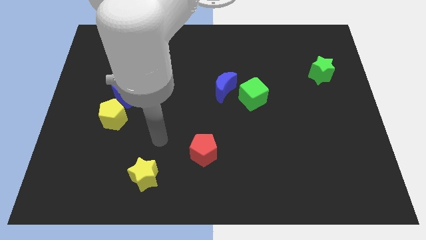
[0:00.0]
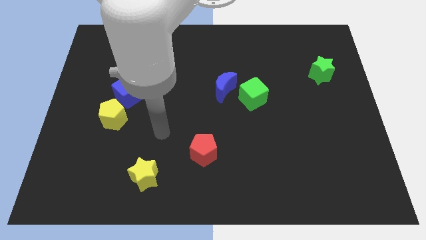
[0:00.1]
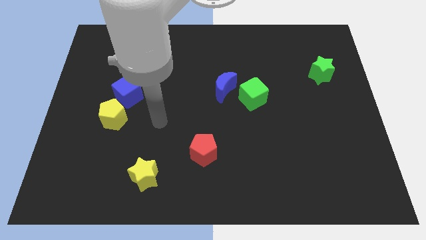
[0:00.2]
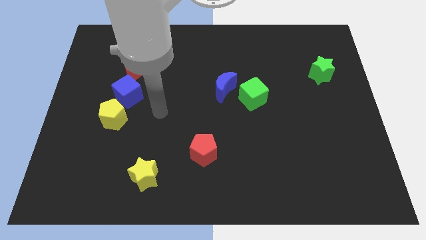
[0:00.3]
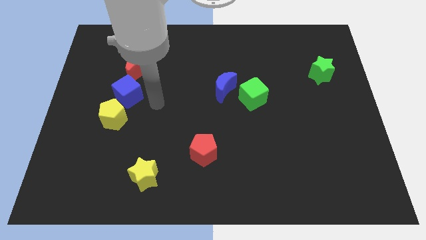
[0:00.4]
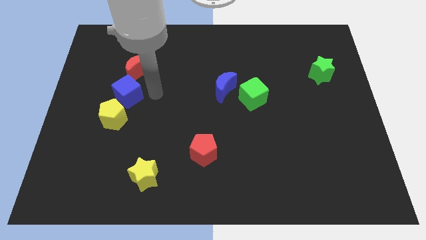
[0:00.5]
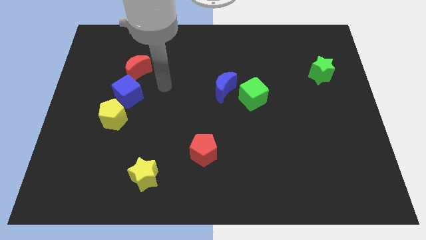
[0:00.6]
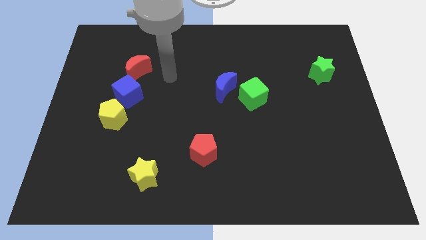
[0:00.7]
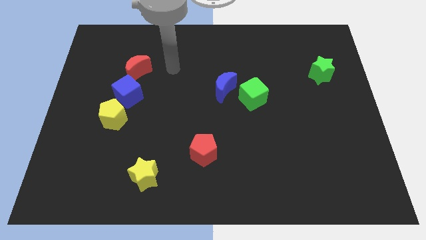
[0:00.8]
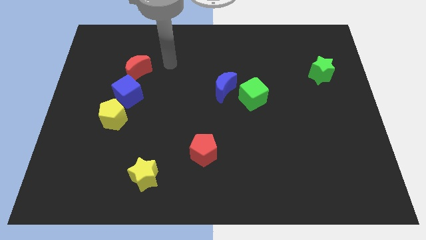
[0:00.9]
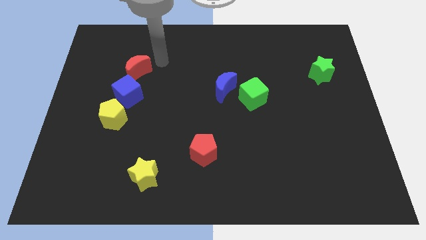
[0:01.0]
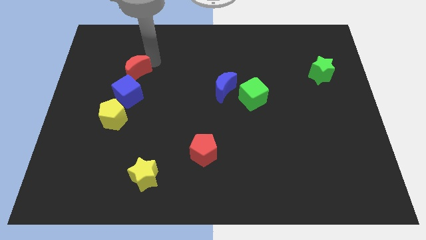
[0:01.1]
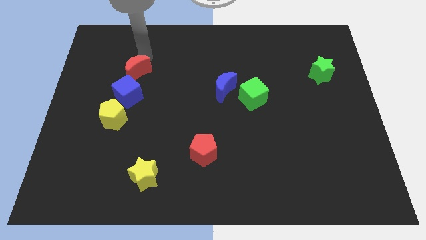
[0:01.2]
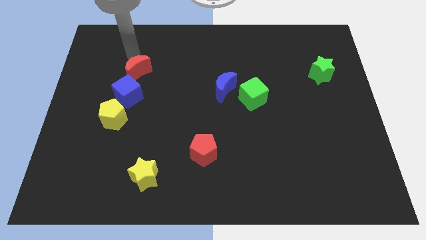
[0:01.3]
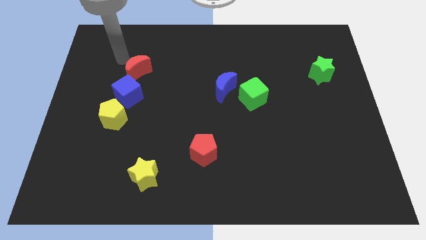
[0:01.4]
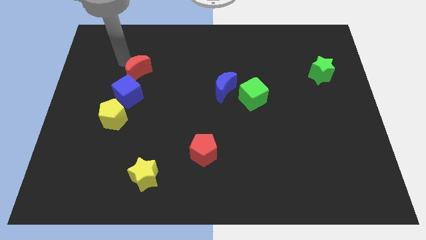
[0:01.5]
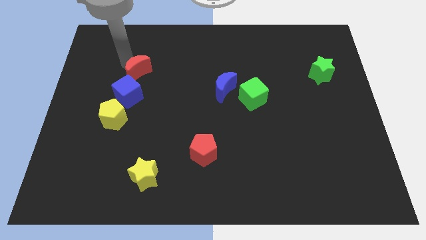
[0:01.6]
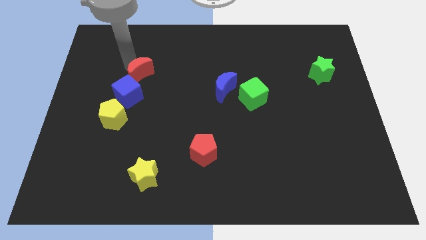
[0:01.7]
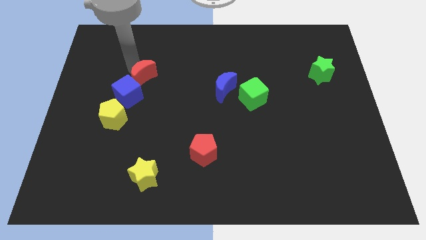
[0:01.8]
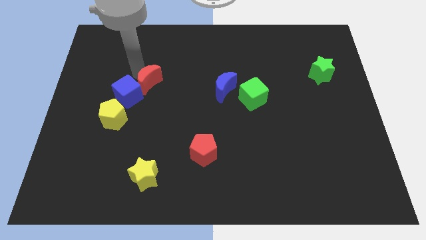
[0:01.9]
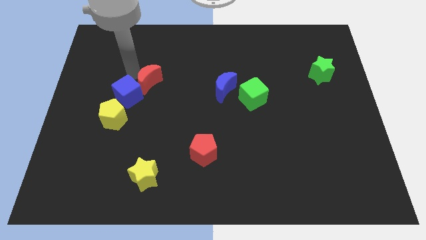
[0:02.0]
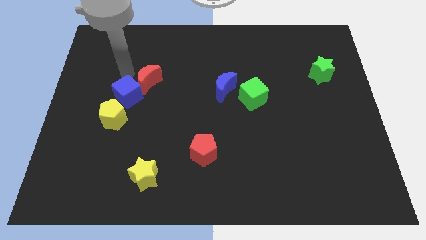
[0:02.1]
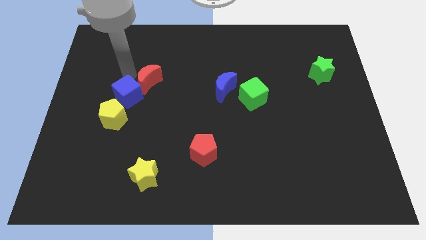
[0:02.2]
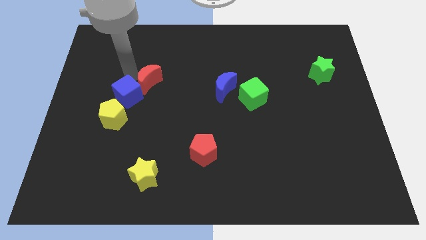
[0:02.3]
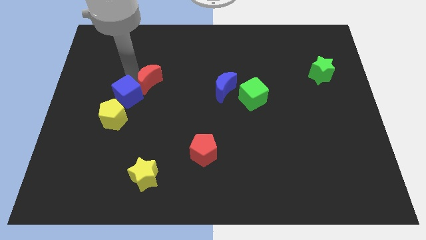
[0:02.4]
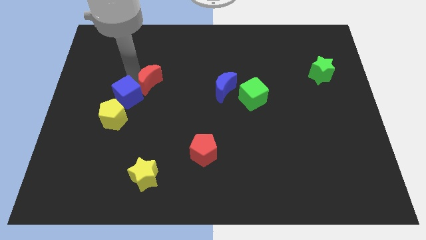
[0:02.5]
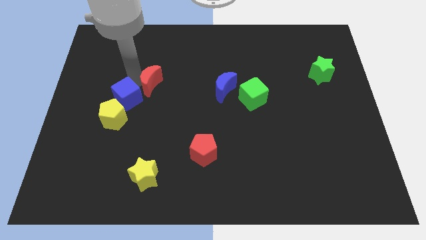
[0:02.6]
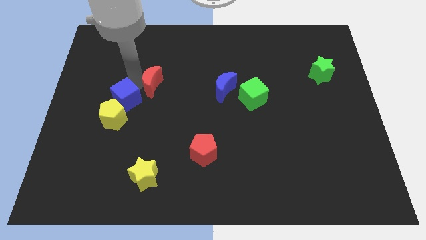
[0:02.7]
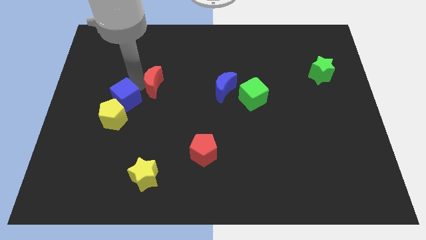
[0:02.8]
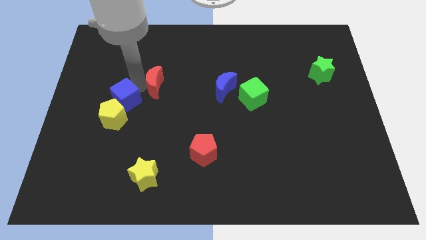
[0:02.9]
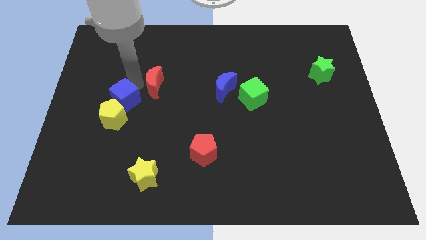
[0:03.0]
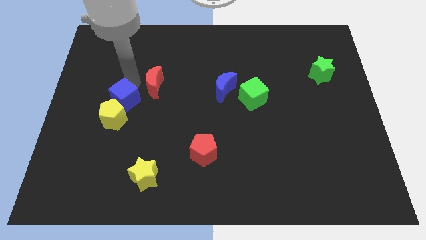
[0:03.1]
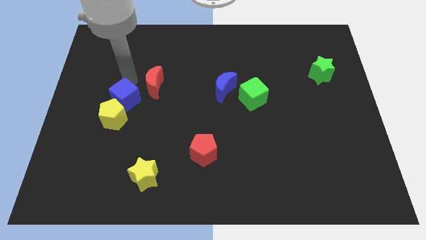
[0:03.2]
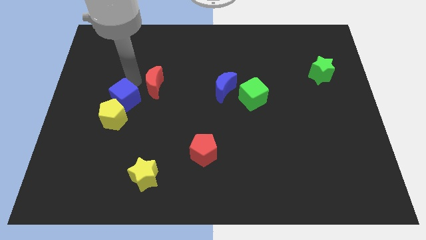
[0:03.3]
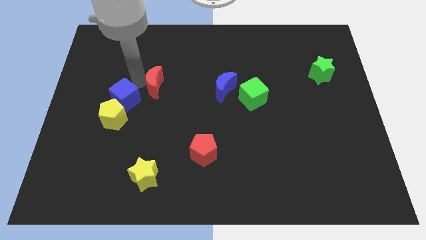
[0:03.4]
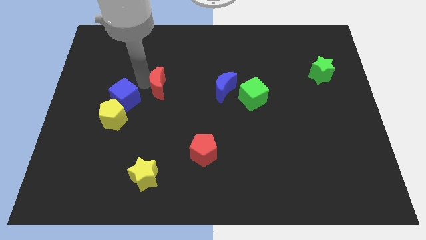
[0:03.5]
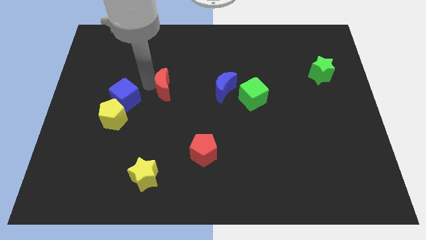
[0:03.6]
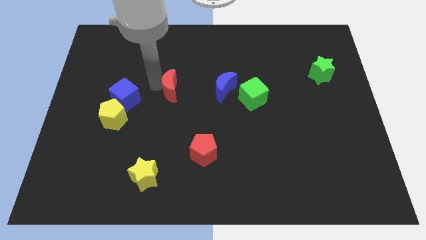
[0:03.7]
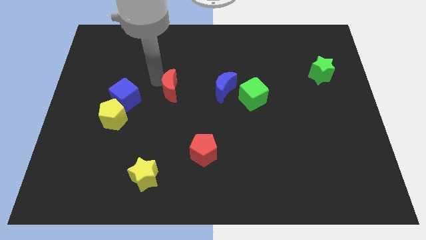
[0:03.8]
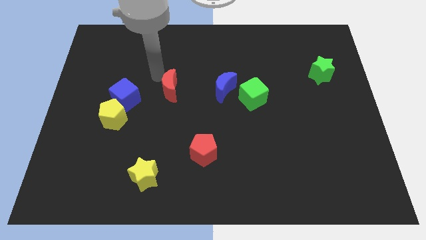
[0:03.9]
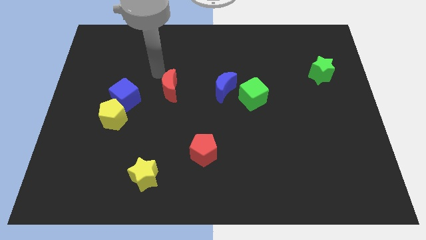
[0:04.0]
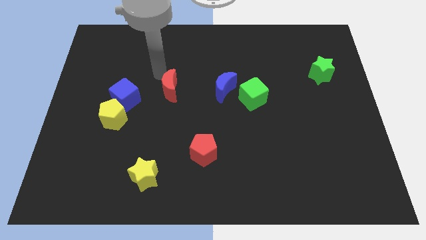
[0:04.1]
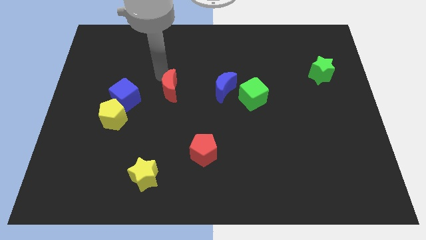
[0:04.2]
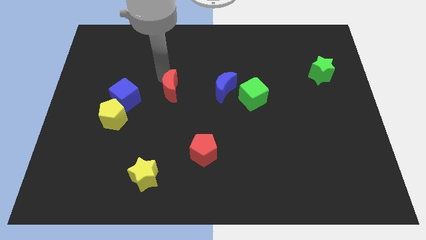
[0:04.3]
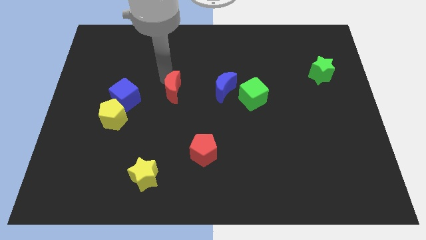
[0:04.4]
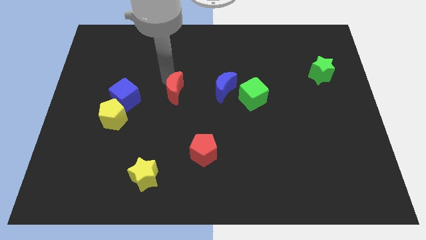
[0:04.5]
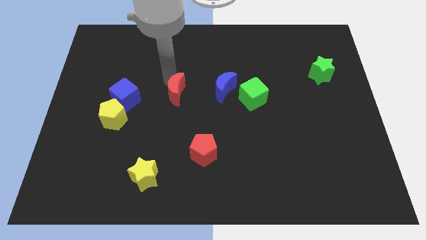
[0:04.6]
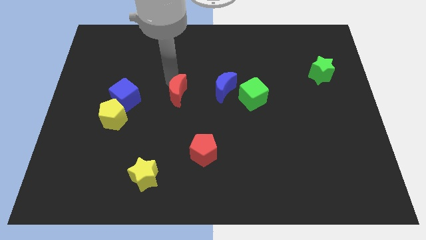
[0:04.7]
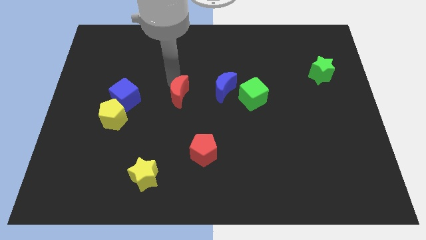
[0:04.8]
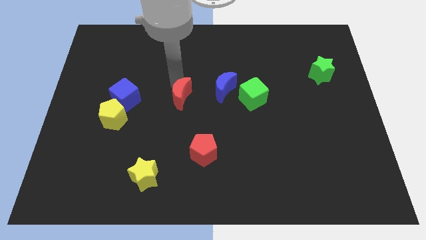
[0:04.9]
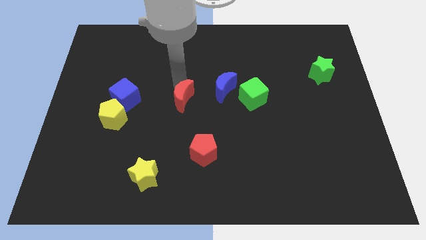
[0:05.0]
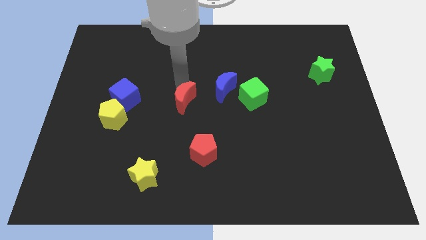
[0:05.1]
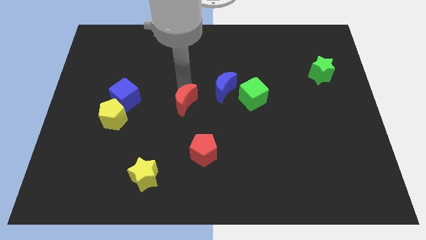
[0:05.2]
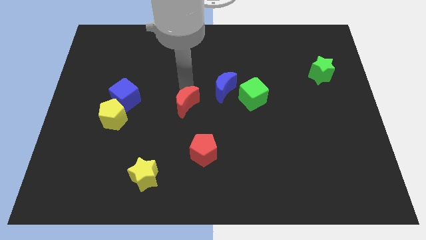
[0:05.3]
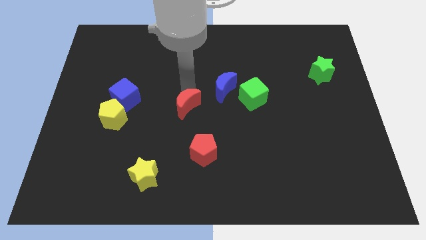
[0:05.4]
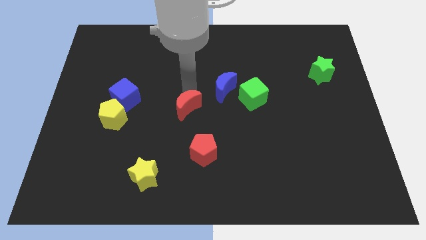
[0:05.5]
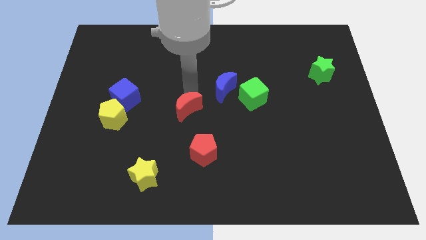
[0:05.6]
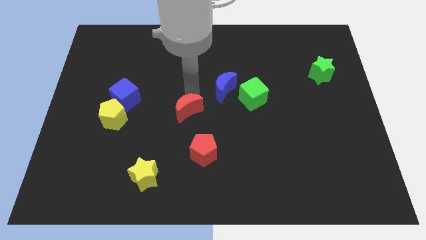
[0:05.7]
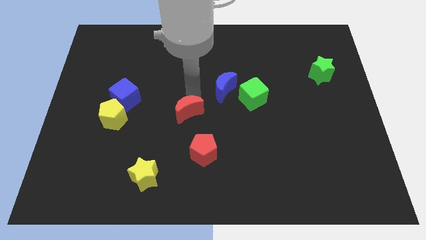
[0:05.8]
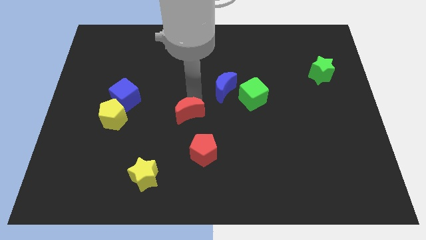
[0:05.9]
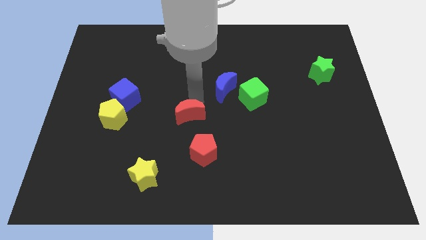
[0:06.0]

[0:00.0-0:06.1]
push the red moon downwards and then to the right

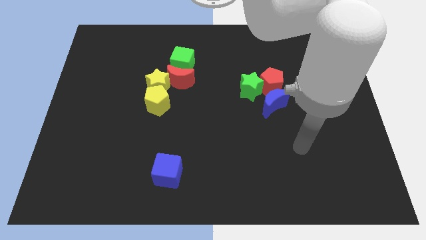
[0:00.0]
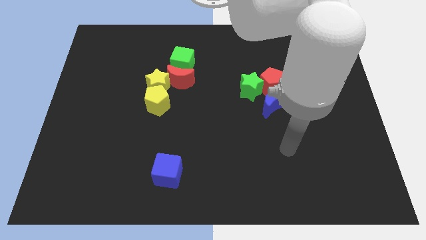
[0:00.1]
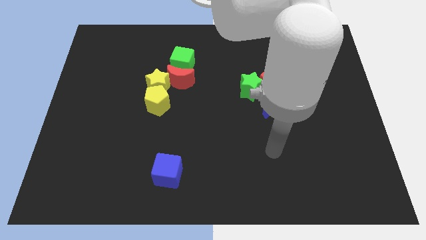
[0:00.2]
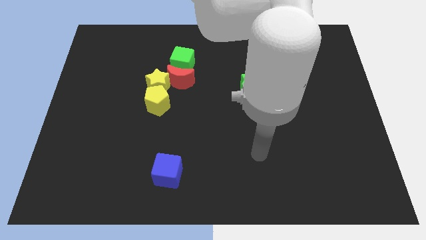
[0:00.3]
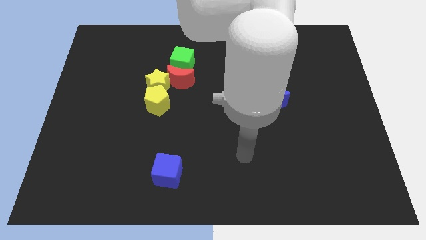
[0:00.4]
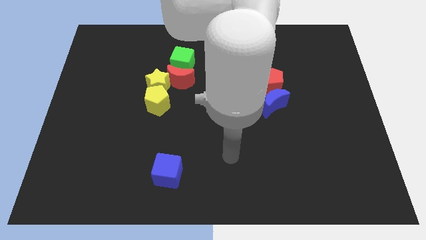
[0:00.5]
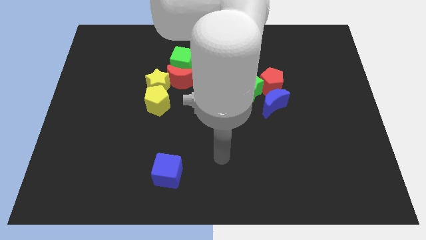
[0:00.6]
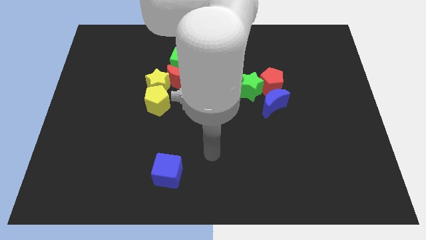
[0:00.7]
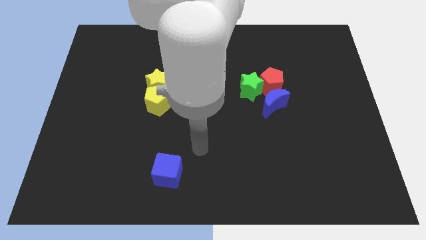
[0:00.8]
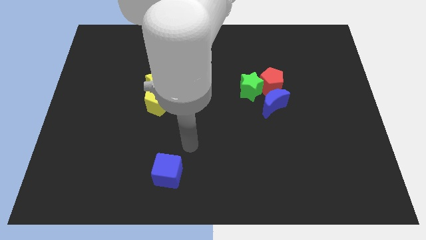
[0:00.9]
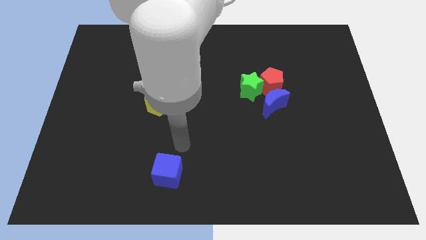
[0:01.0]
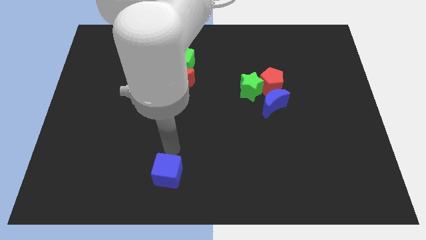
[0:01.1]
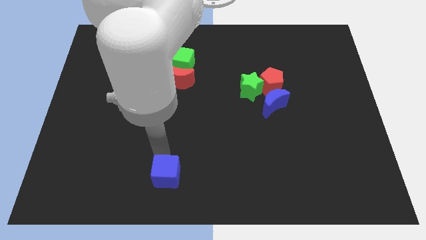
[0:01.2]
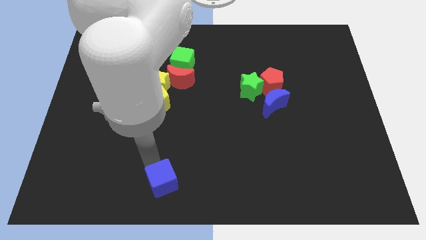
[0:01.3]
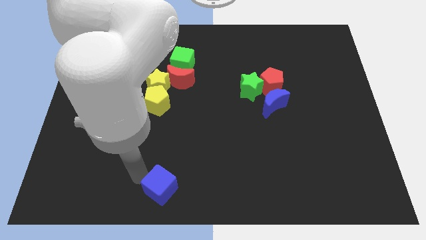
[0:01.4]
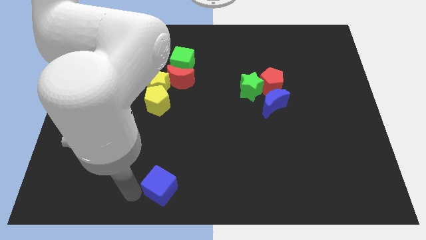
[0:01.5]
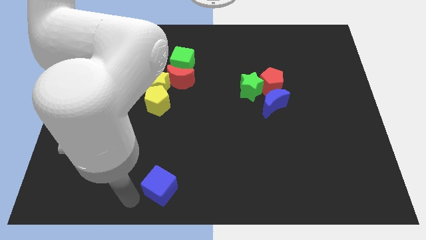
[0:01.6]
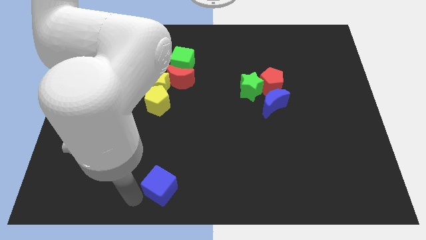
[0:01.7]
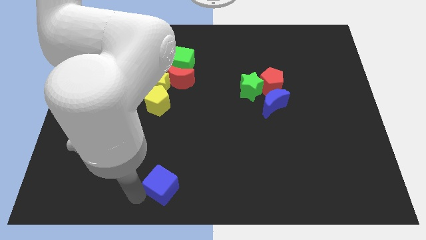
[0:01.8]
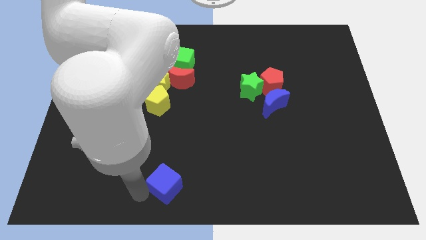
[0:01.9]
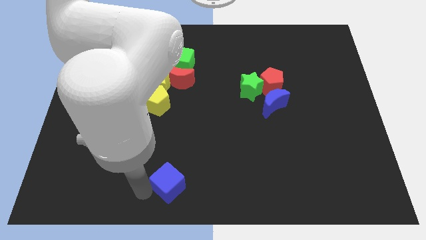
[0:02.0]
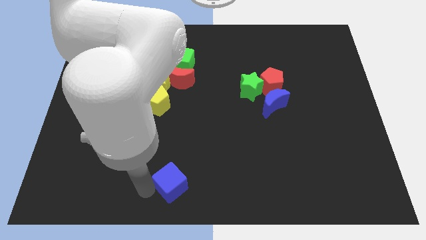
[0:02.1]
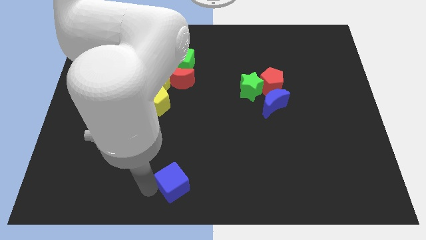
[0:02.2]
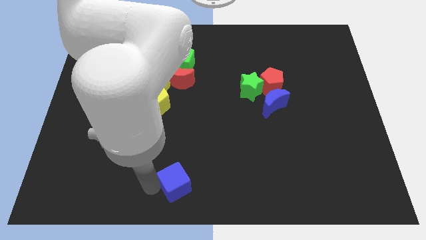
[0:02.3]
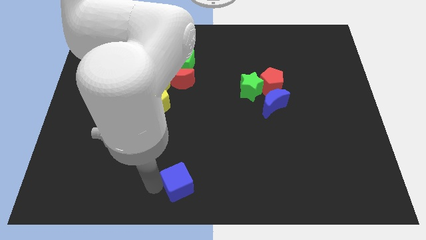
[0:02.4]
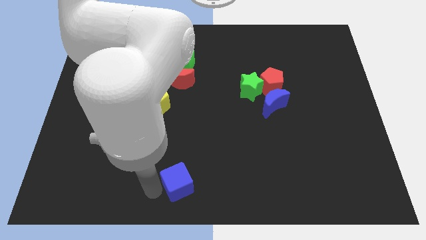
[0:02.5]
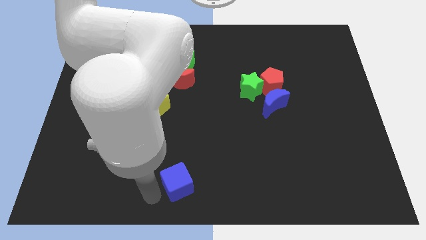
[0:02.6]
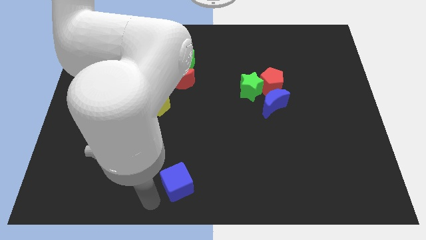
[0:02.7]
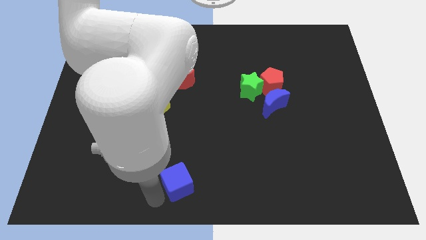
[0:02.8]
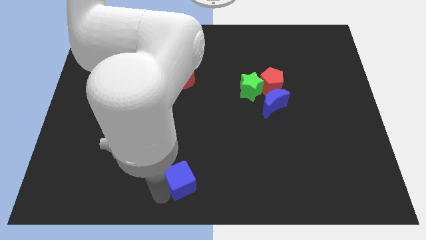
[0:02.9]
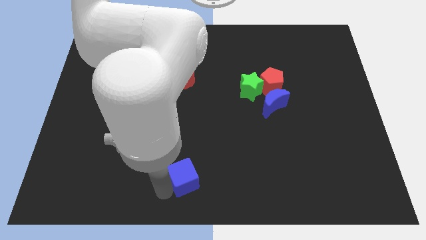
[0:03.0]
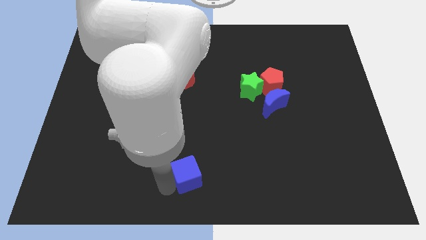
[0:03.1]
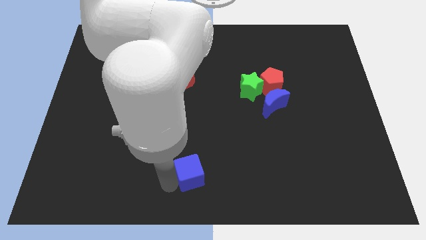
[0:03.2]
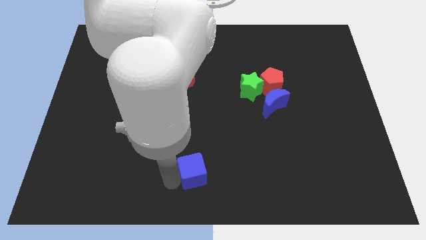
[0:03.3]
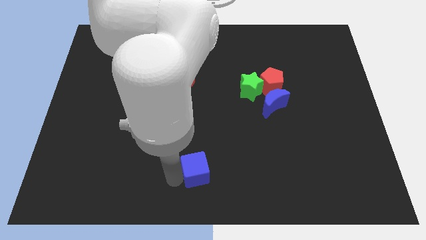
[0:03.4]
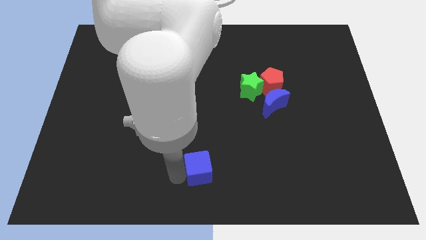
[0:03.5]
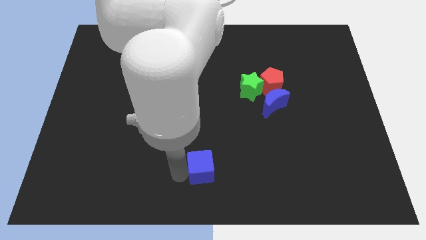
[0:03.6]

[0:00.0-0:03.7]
push the blue cube somewhat to the right
